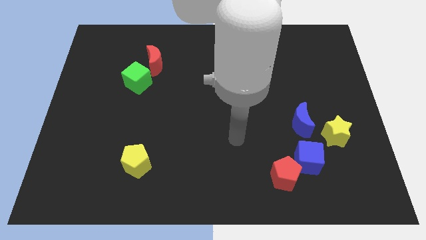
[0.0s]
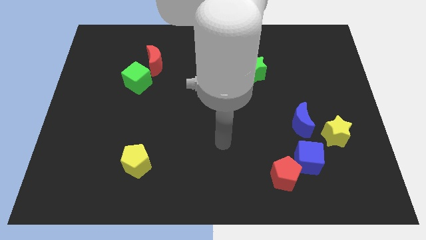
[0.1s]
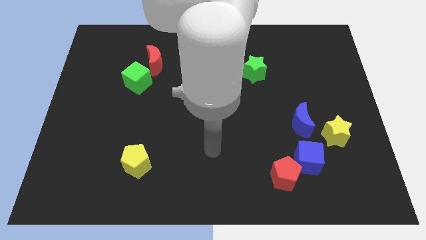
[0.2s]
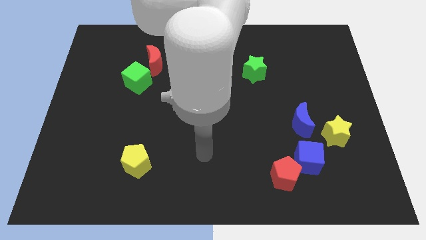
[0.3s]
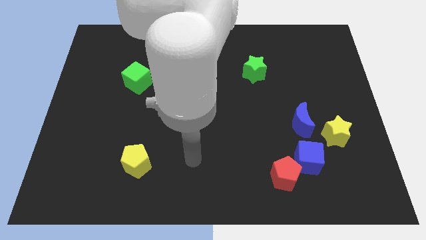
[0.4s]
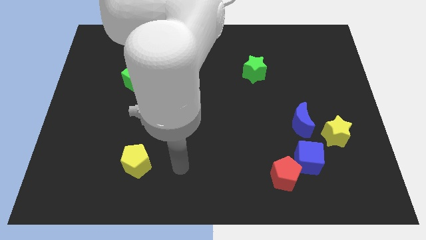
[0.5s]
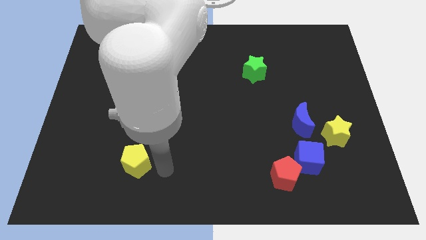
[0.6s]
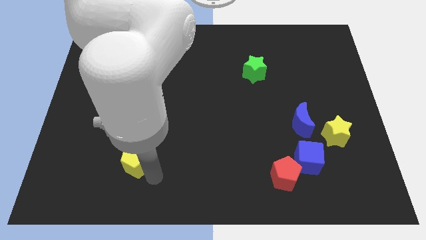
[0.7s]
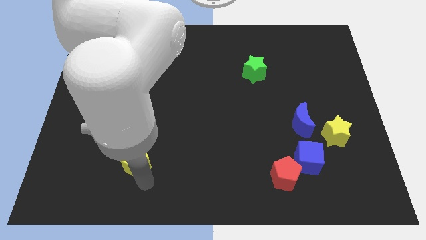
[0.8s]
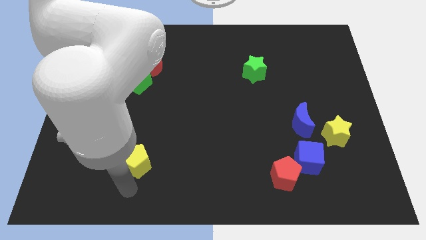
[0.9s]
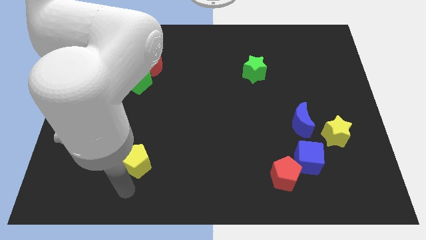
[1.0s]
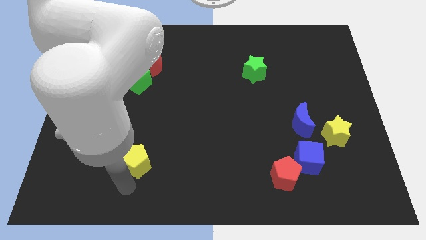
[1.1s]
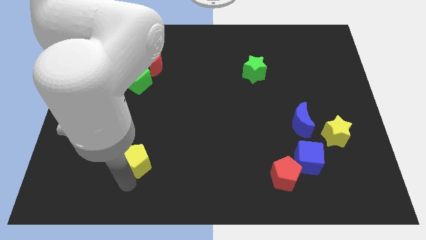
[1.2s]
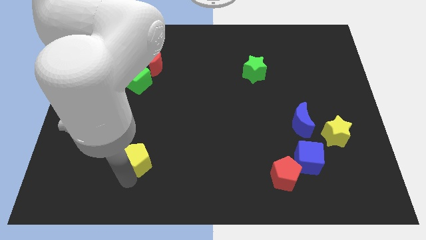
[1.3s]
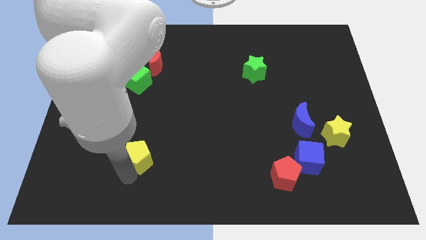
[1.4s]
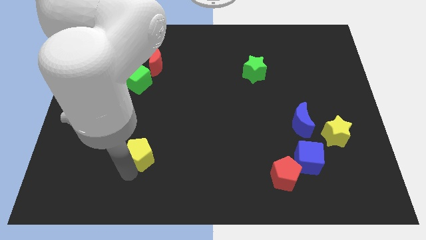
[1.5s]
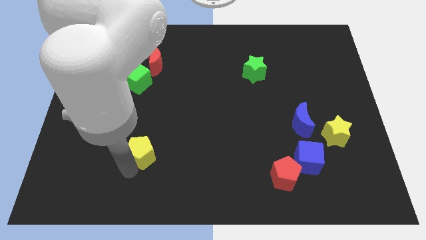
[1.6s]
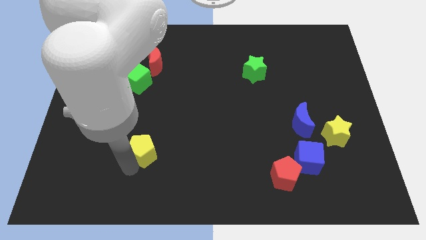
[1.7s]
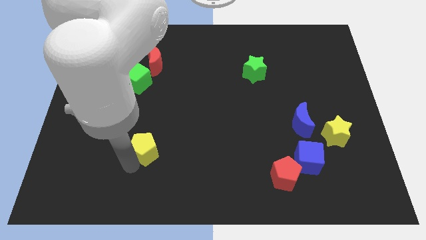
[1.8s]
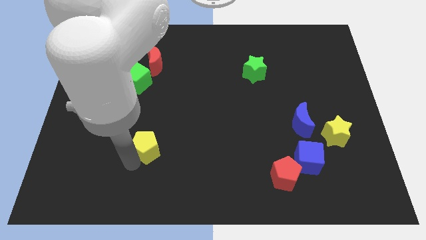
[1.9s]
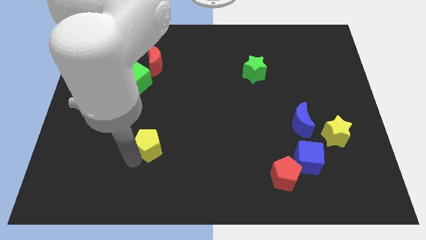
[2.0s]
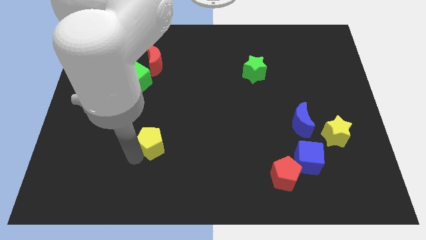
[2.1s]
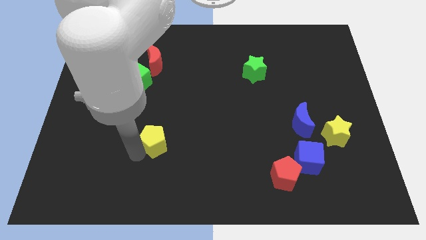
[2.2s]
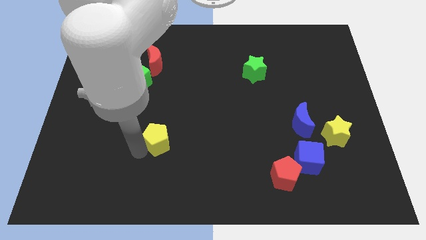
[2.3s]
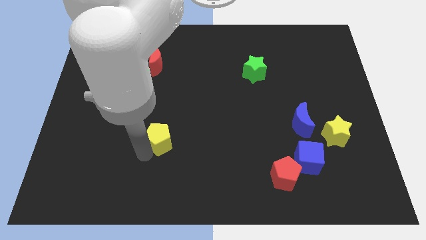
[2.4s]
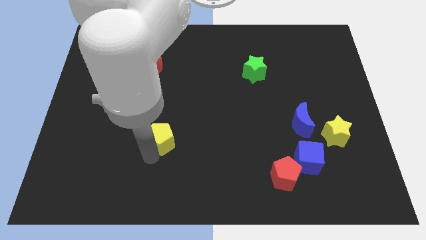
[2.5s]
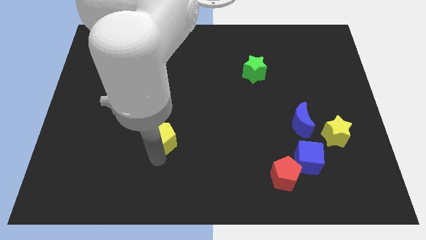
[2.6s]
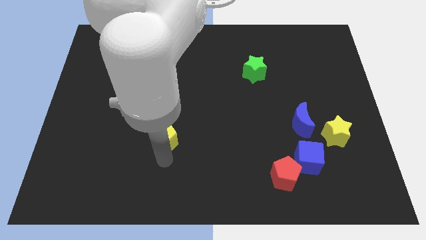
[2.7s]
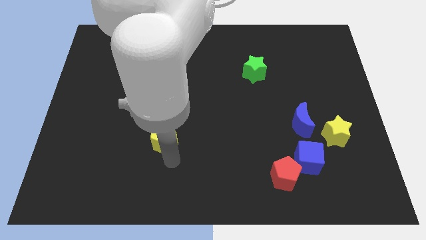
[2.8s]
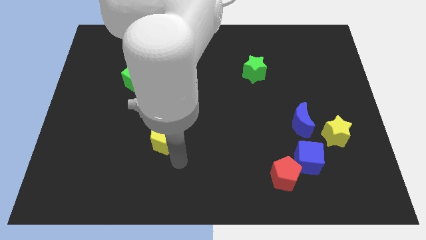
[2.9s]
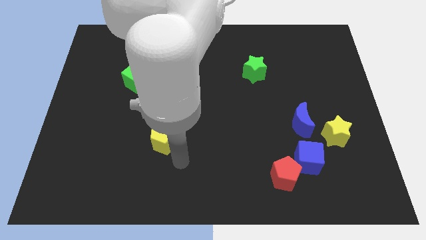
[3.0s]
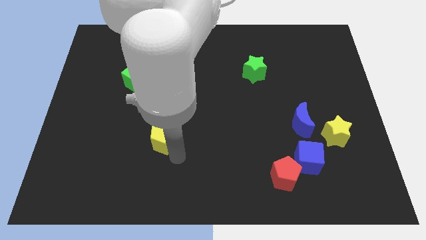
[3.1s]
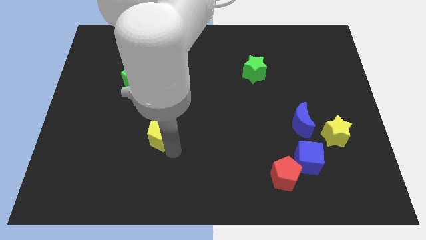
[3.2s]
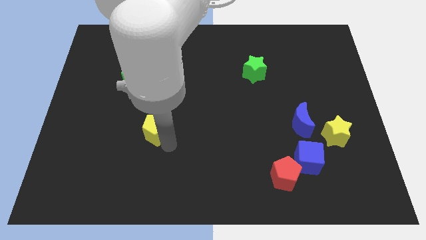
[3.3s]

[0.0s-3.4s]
move the yellow pentagon a little bit upwards

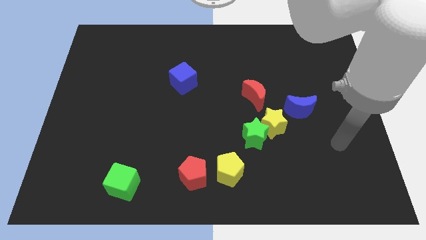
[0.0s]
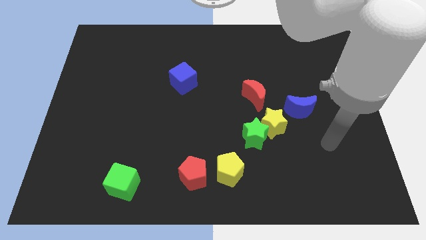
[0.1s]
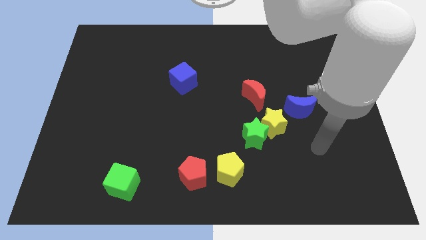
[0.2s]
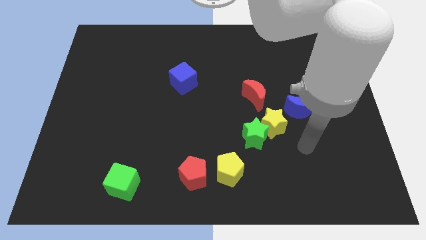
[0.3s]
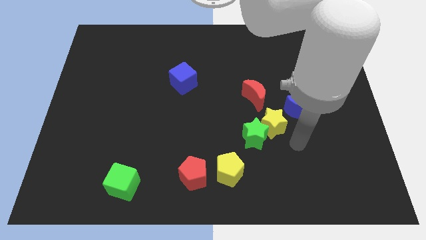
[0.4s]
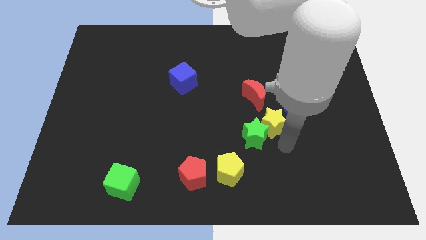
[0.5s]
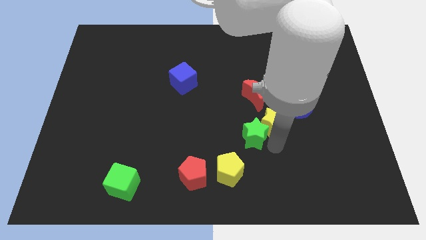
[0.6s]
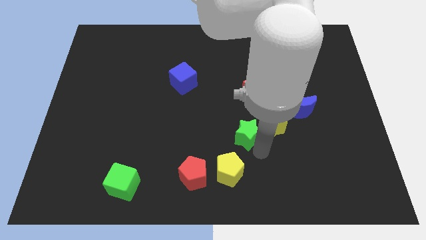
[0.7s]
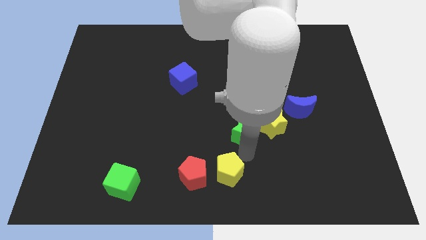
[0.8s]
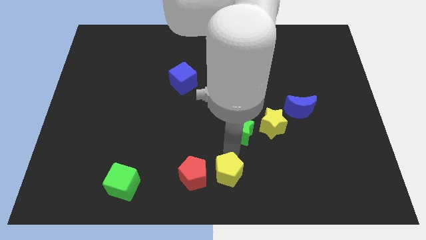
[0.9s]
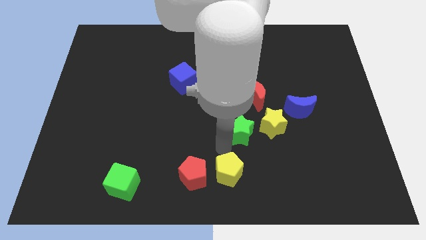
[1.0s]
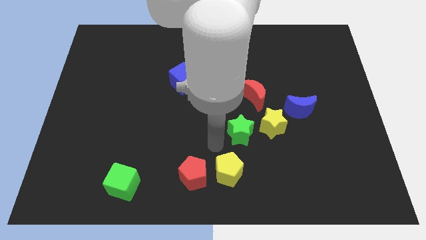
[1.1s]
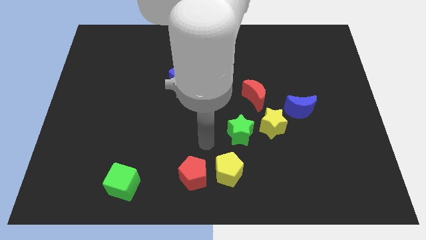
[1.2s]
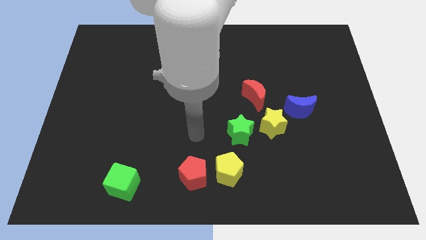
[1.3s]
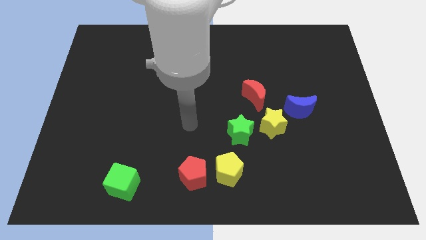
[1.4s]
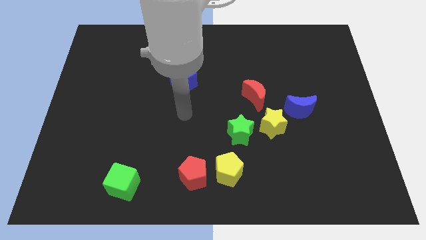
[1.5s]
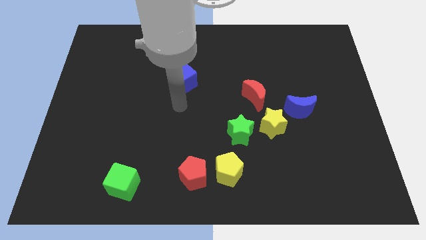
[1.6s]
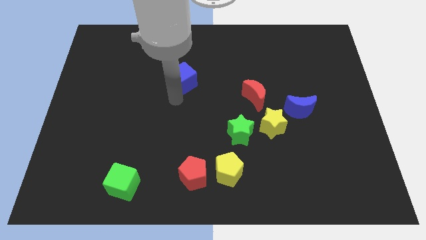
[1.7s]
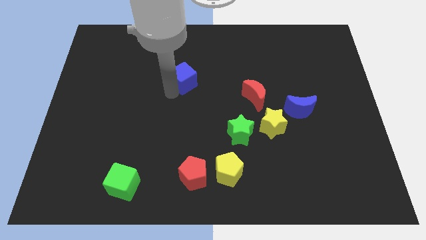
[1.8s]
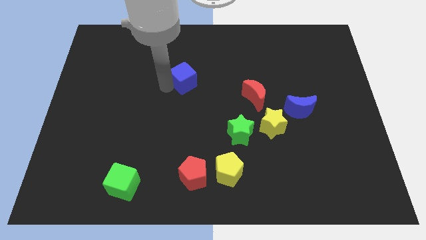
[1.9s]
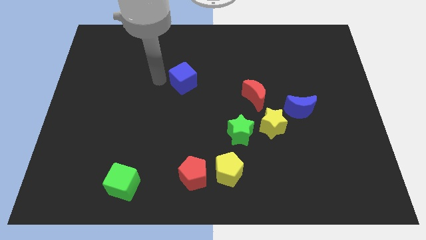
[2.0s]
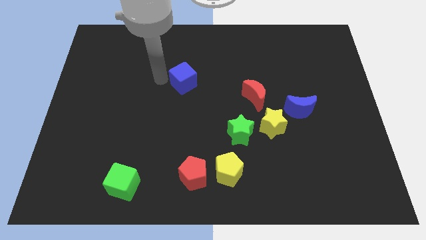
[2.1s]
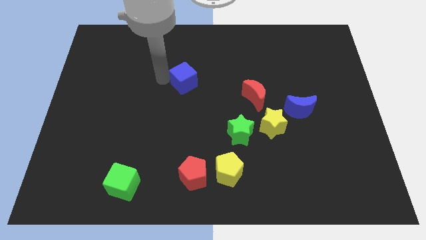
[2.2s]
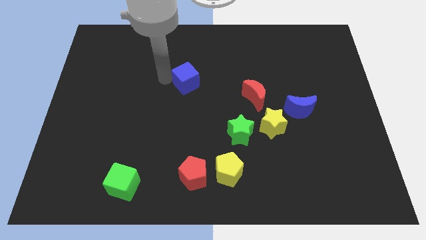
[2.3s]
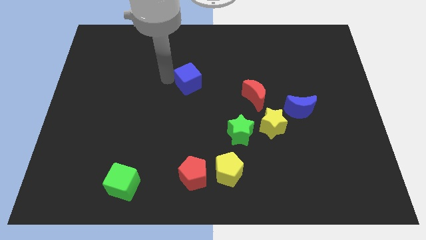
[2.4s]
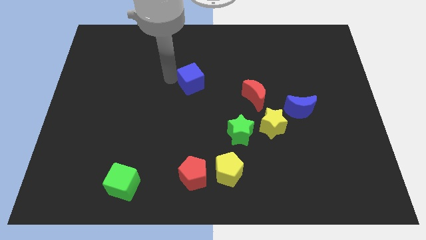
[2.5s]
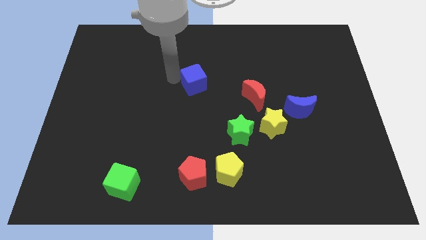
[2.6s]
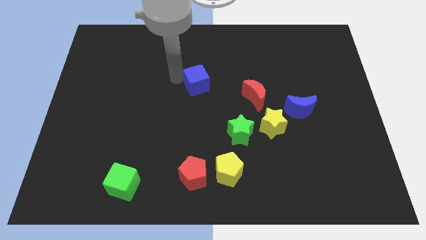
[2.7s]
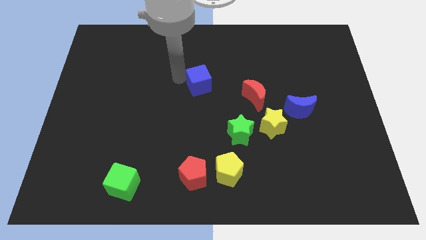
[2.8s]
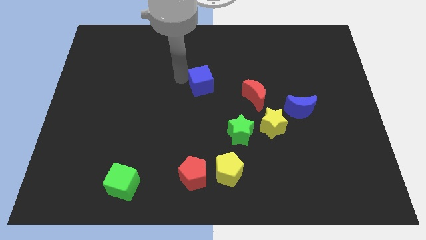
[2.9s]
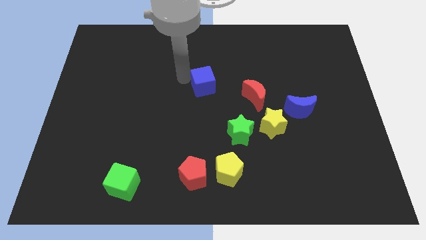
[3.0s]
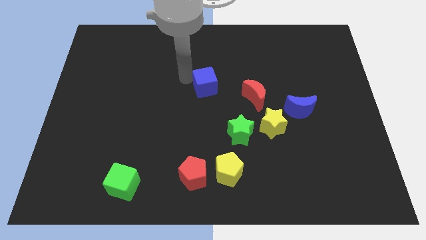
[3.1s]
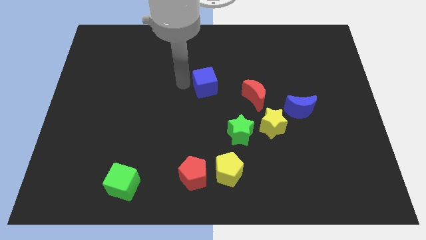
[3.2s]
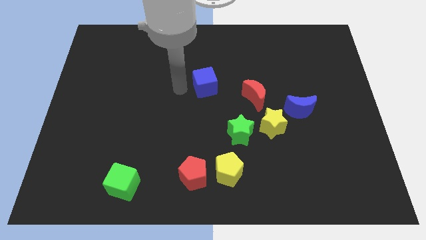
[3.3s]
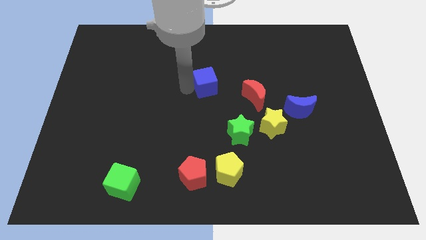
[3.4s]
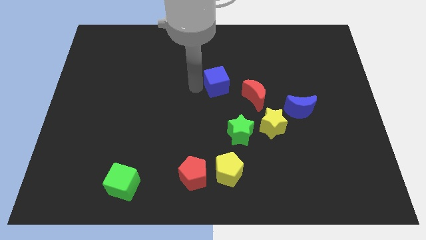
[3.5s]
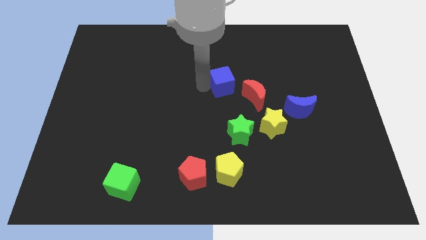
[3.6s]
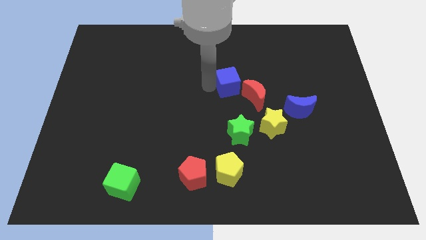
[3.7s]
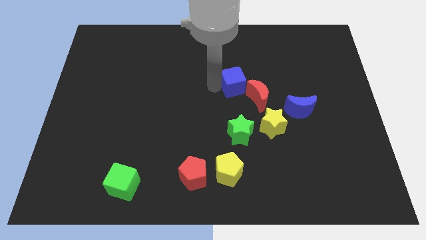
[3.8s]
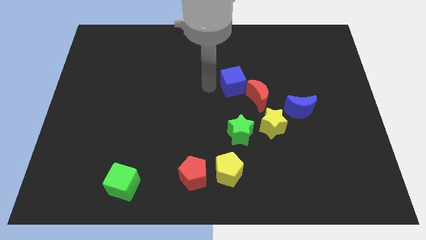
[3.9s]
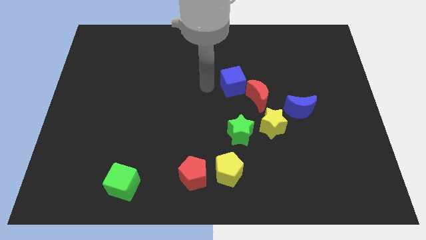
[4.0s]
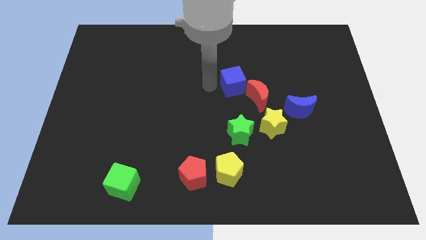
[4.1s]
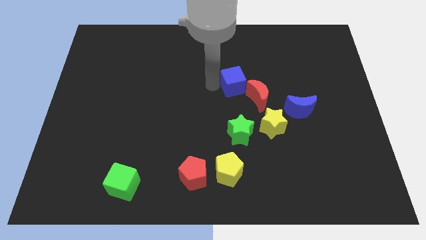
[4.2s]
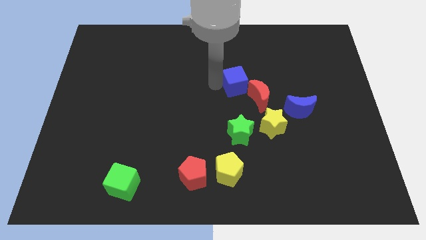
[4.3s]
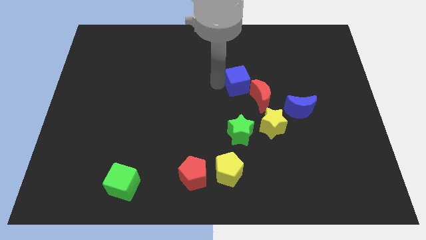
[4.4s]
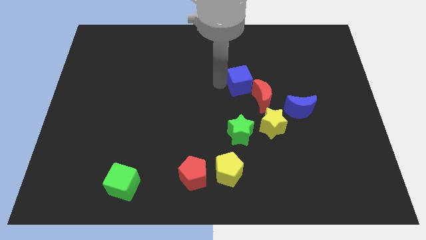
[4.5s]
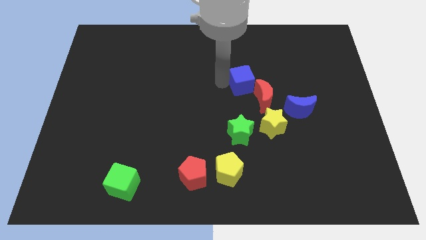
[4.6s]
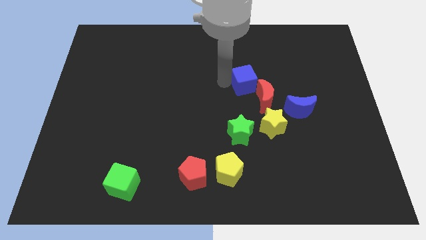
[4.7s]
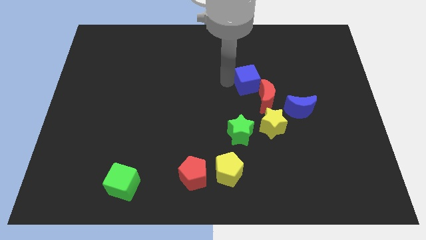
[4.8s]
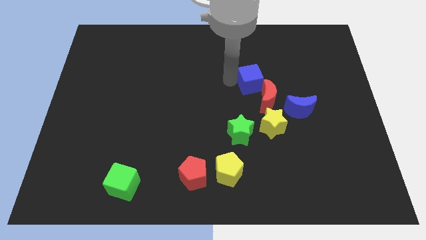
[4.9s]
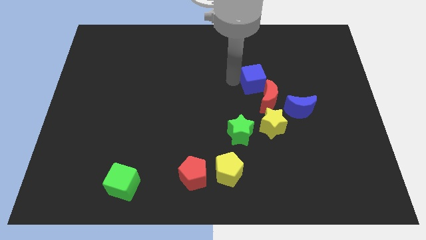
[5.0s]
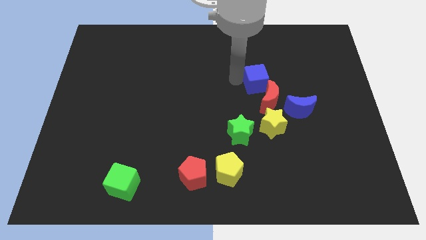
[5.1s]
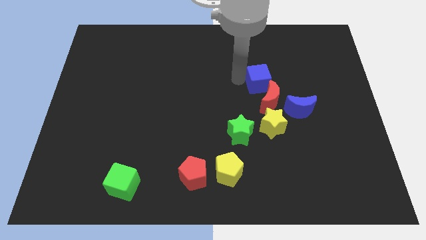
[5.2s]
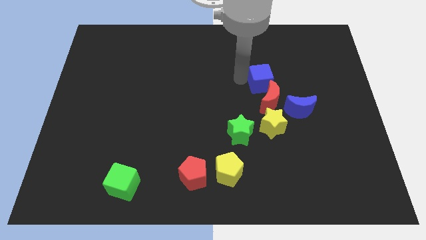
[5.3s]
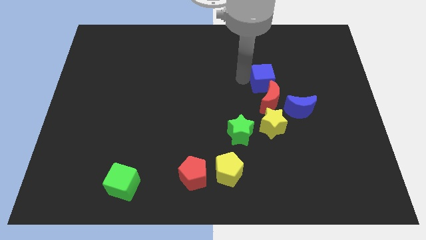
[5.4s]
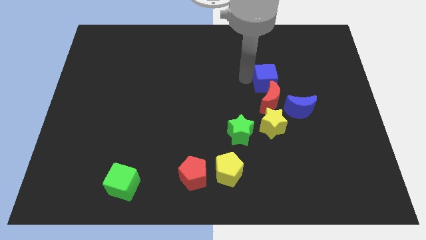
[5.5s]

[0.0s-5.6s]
push the blue cube right
